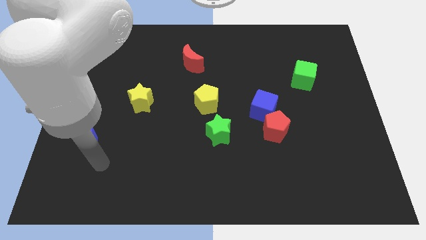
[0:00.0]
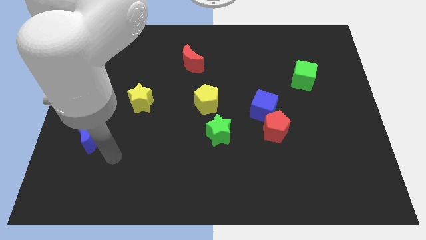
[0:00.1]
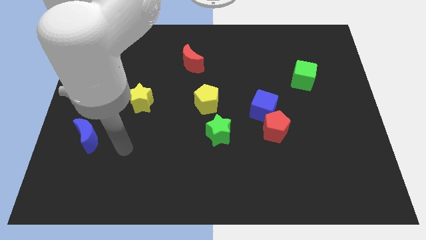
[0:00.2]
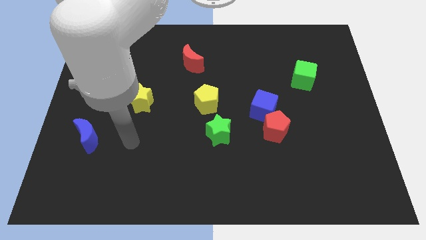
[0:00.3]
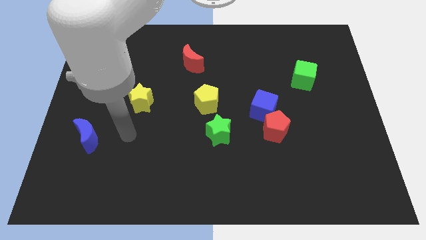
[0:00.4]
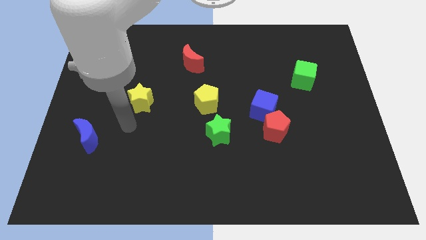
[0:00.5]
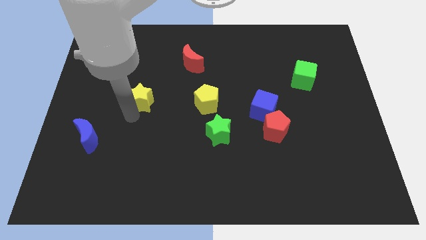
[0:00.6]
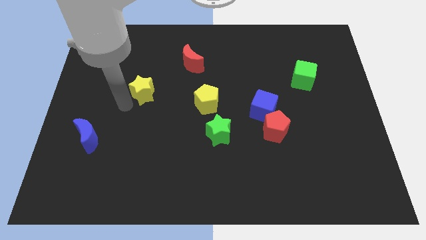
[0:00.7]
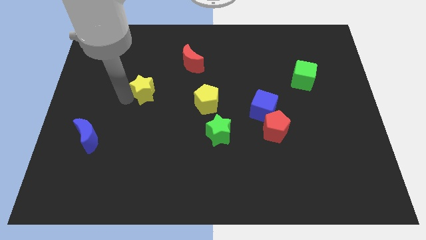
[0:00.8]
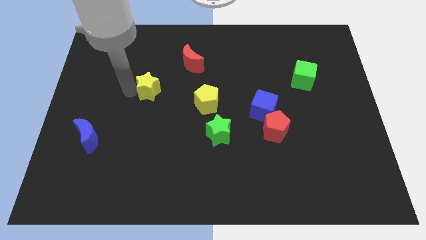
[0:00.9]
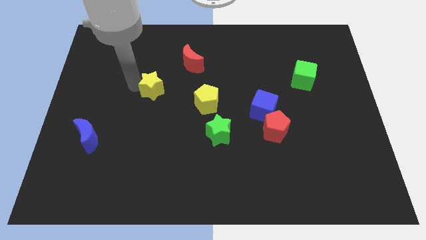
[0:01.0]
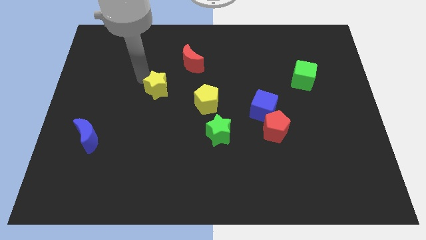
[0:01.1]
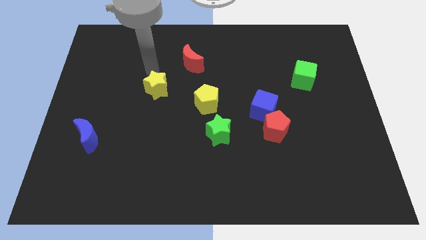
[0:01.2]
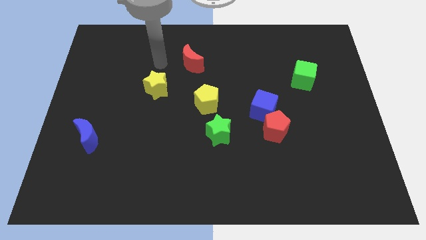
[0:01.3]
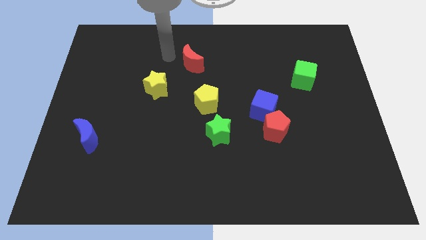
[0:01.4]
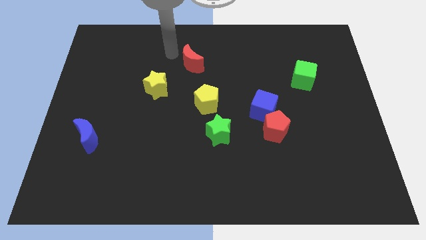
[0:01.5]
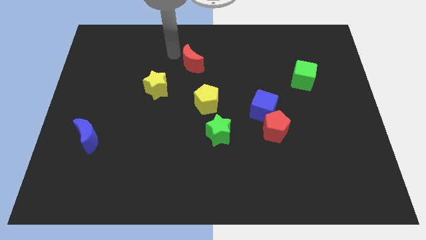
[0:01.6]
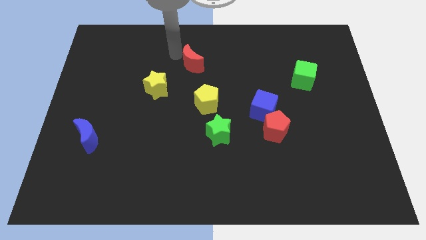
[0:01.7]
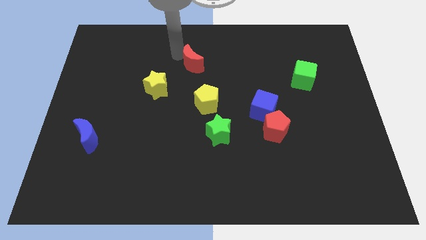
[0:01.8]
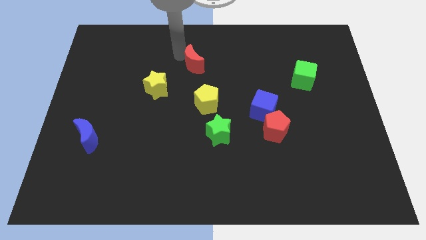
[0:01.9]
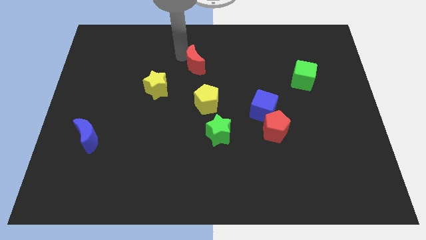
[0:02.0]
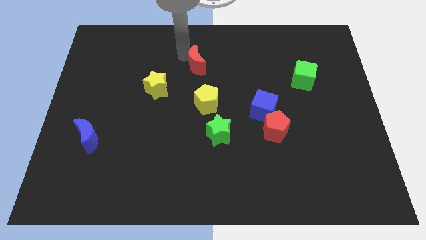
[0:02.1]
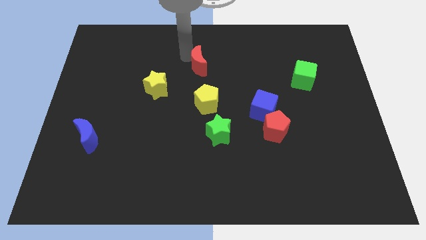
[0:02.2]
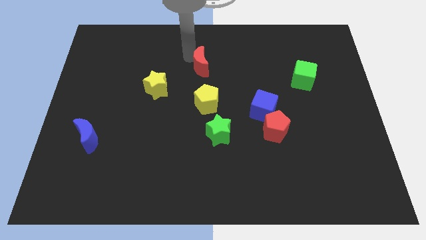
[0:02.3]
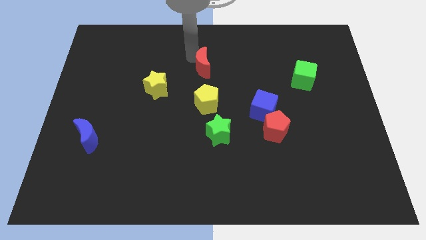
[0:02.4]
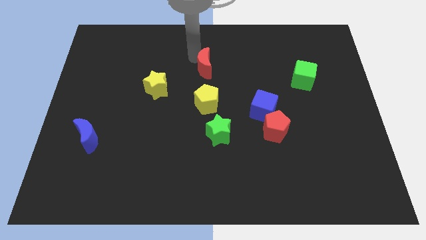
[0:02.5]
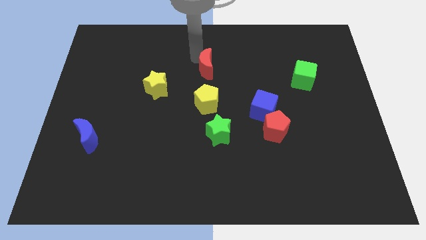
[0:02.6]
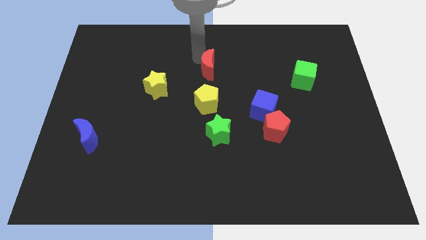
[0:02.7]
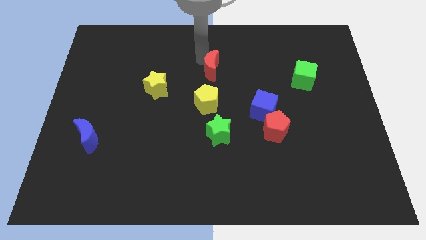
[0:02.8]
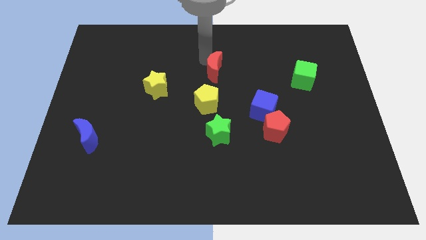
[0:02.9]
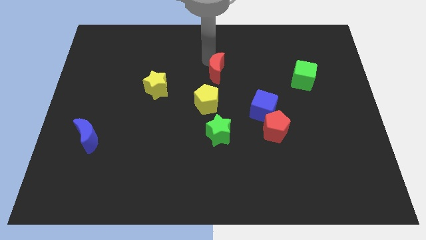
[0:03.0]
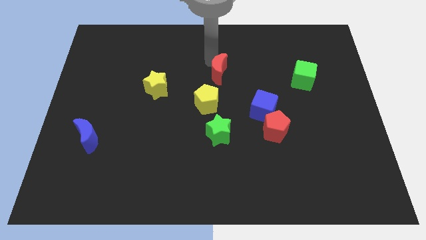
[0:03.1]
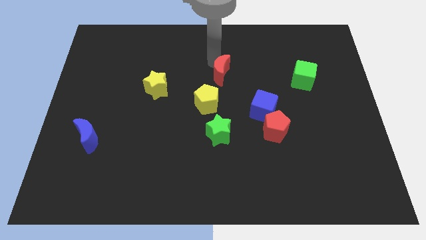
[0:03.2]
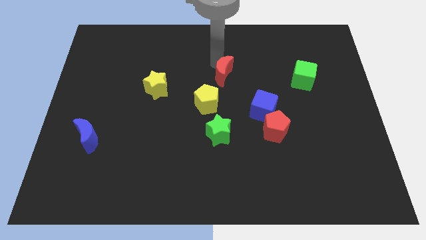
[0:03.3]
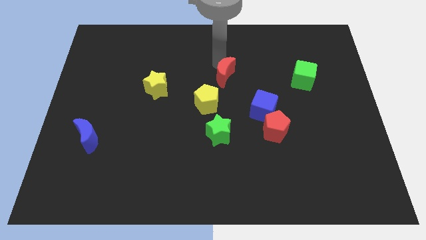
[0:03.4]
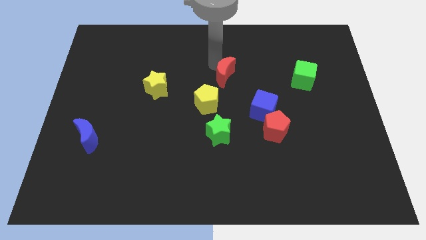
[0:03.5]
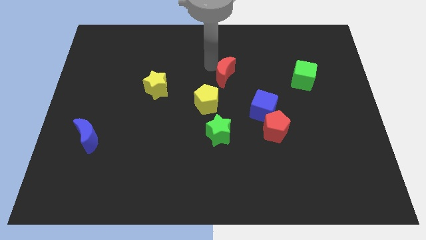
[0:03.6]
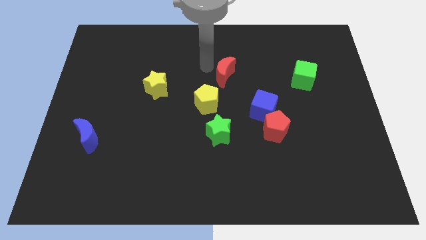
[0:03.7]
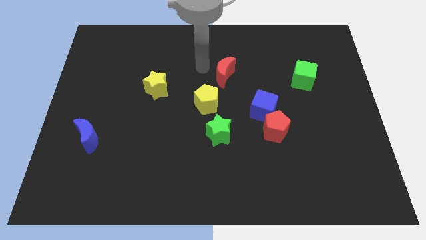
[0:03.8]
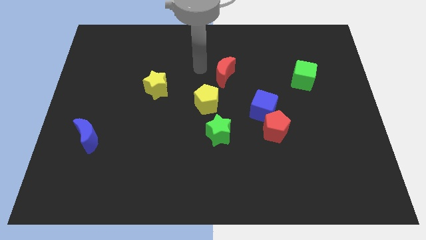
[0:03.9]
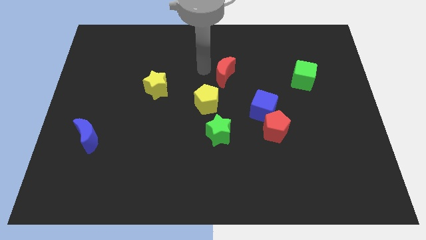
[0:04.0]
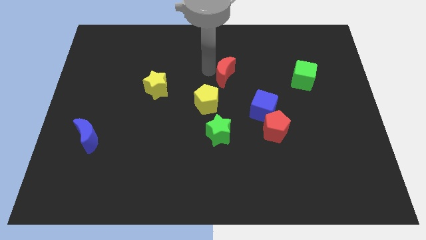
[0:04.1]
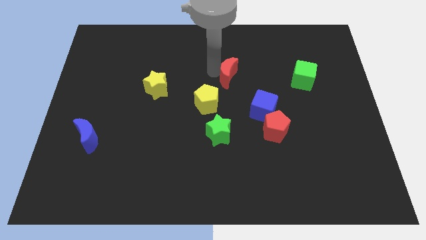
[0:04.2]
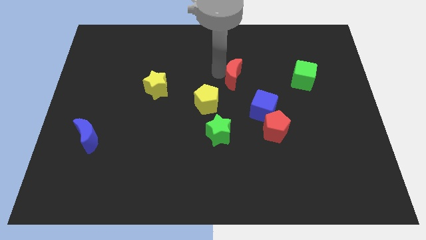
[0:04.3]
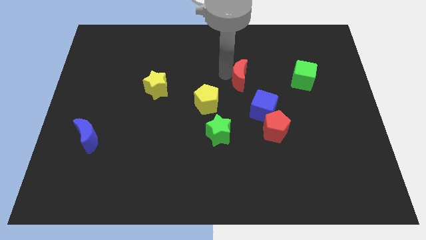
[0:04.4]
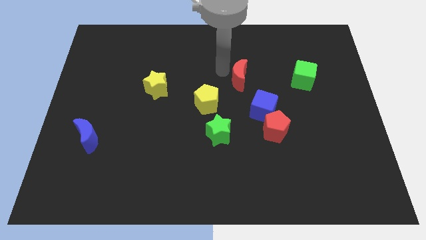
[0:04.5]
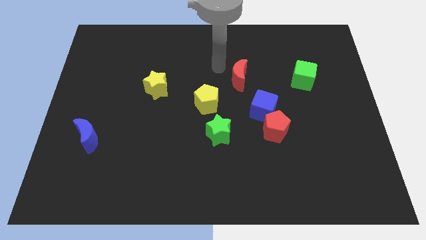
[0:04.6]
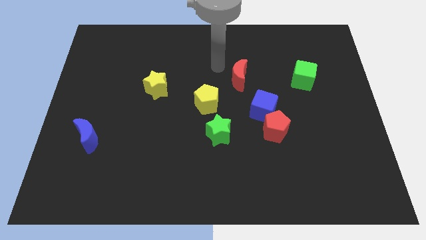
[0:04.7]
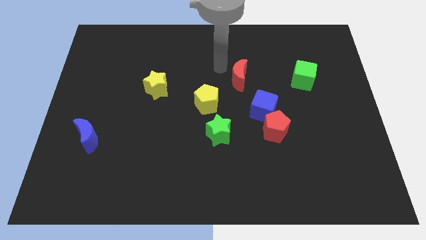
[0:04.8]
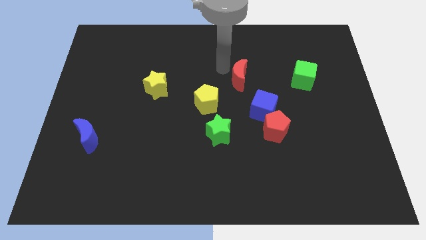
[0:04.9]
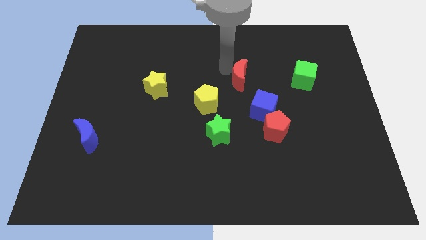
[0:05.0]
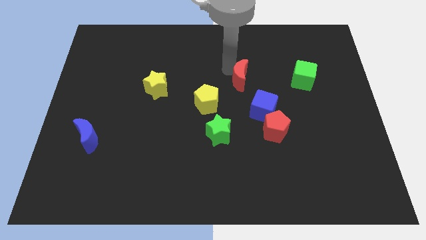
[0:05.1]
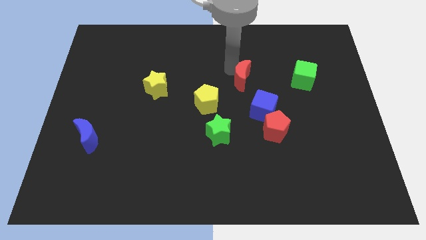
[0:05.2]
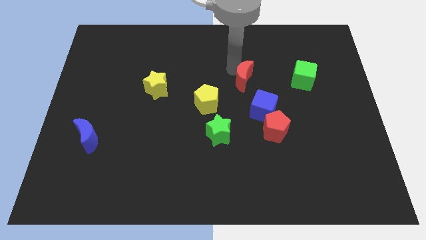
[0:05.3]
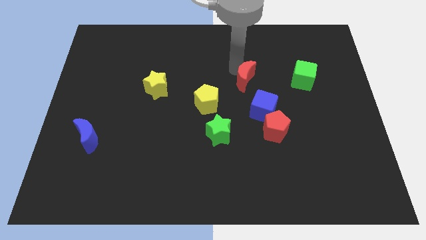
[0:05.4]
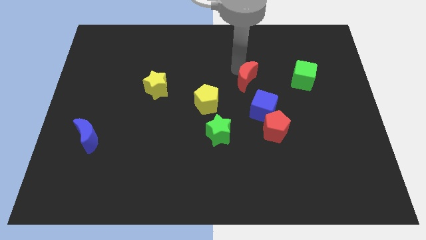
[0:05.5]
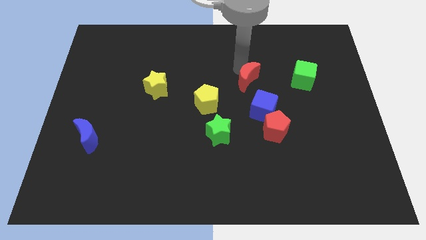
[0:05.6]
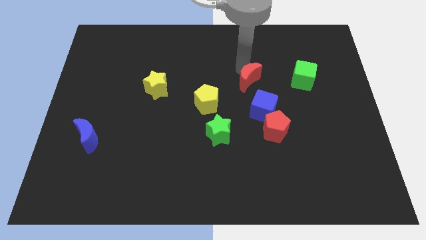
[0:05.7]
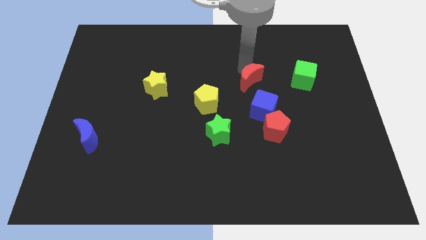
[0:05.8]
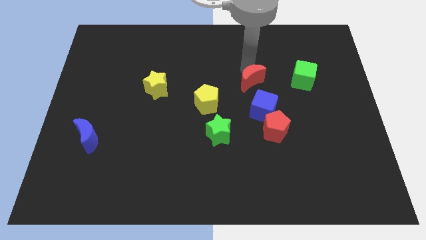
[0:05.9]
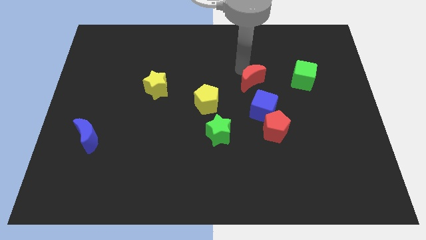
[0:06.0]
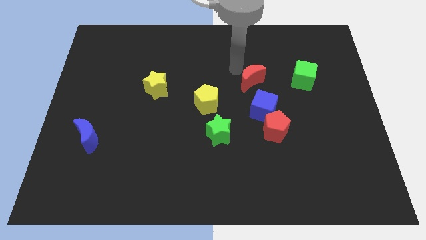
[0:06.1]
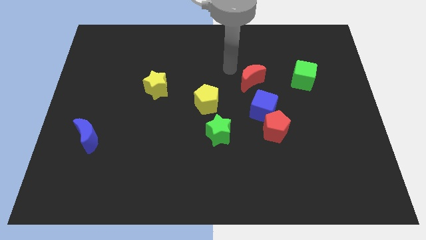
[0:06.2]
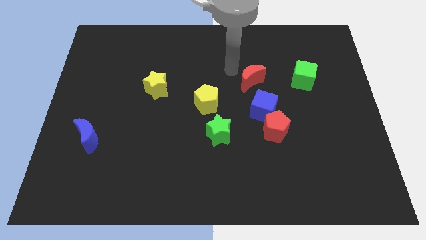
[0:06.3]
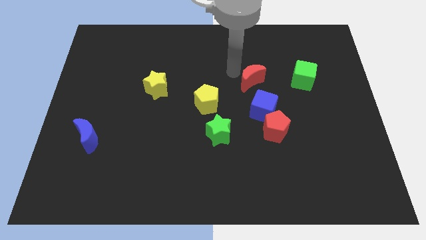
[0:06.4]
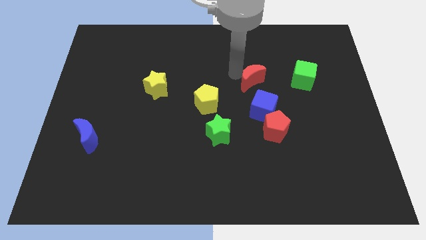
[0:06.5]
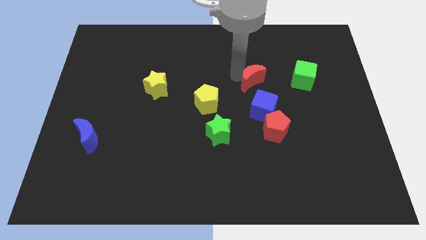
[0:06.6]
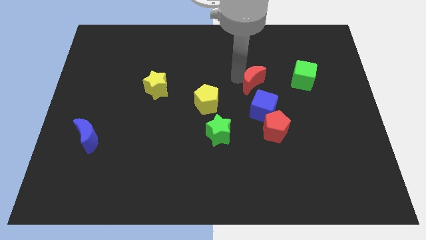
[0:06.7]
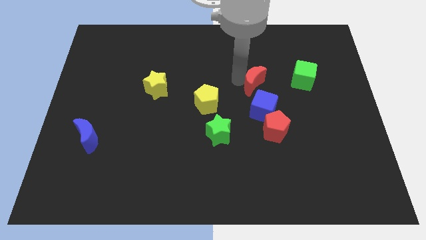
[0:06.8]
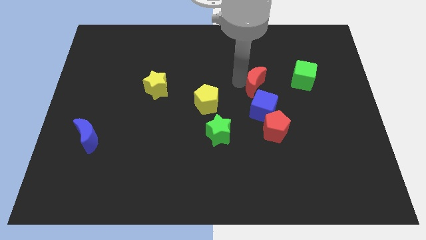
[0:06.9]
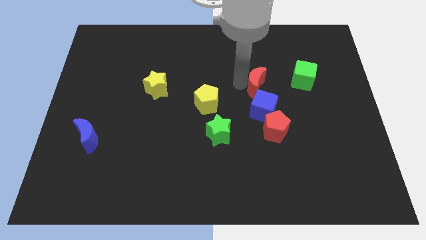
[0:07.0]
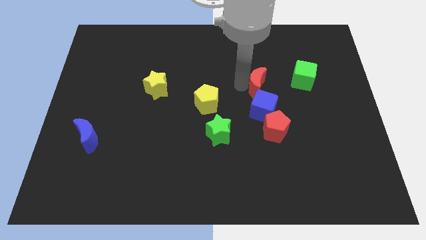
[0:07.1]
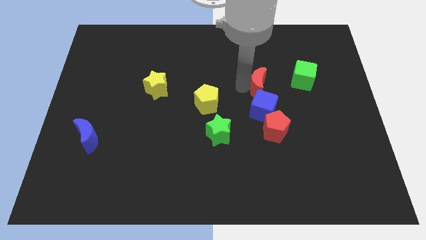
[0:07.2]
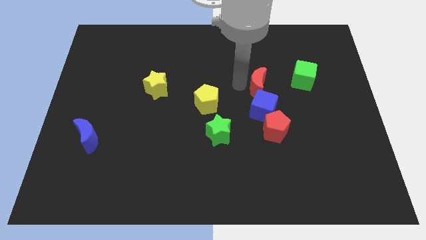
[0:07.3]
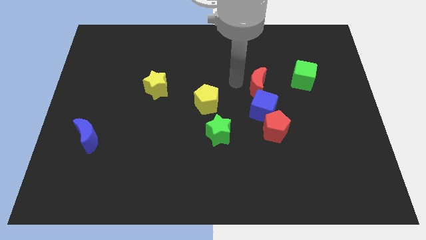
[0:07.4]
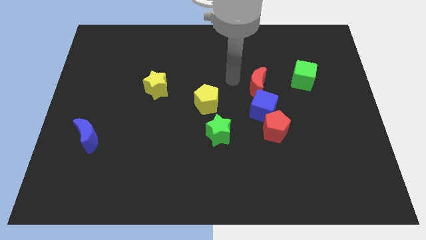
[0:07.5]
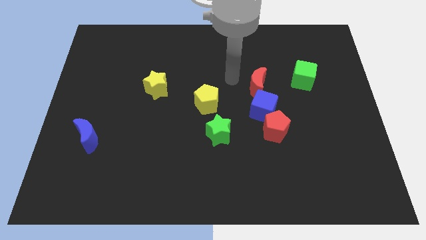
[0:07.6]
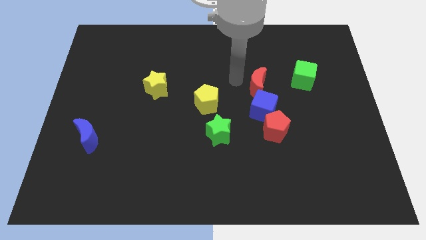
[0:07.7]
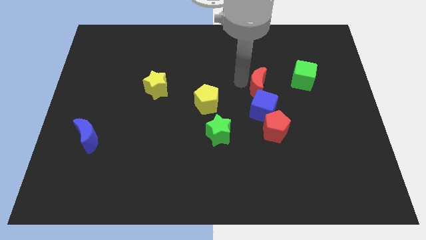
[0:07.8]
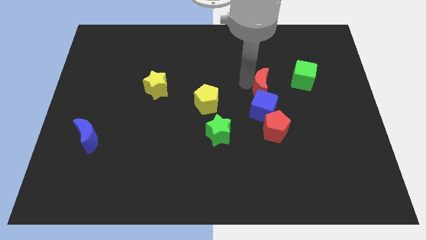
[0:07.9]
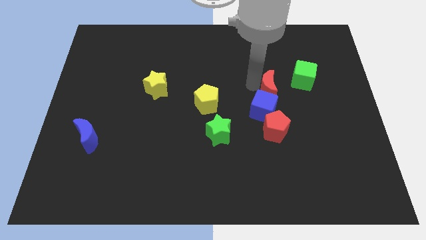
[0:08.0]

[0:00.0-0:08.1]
put the red moon to the bottom left of the green cube
